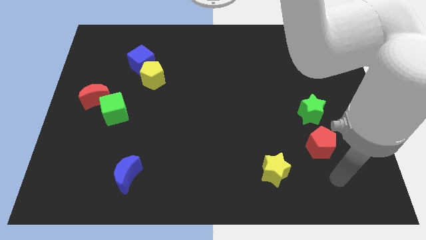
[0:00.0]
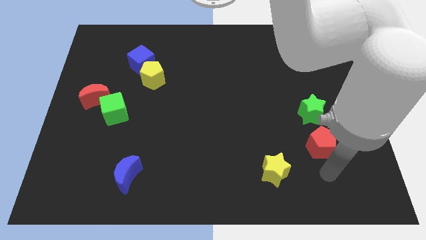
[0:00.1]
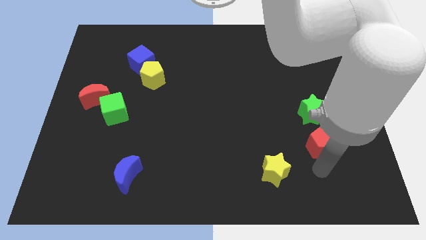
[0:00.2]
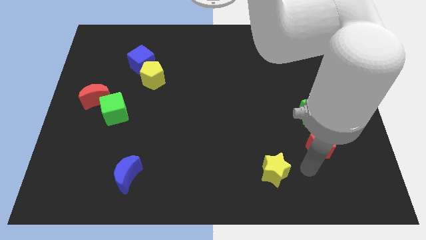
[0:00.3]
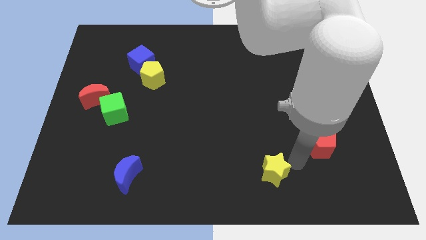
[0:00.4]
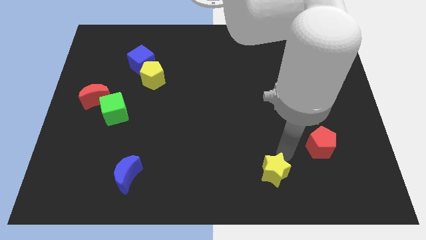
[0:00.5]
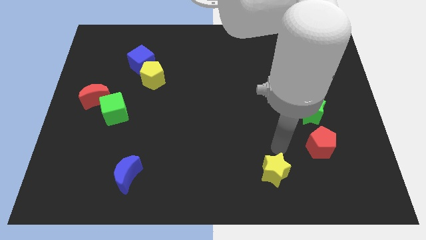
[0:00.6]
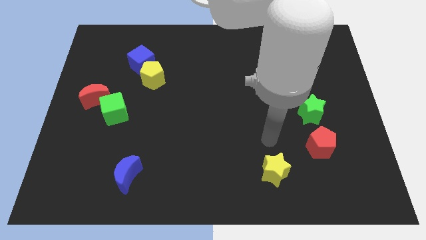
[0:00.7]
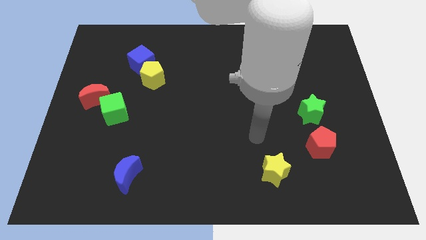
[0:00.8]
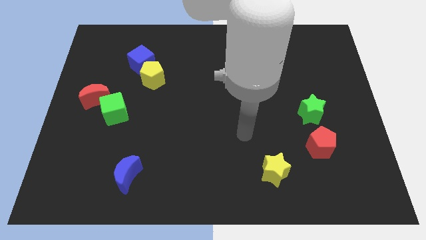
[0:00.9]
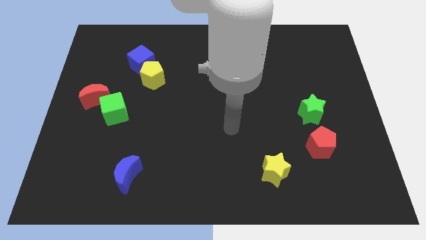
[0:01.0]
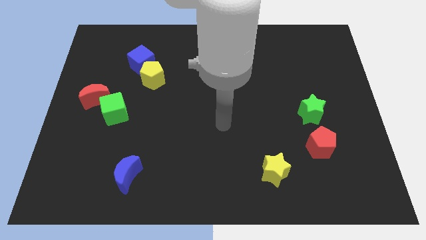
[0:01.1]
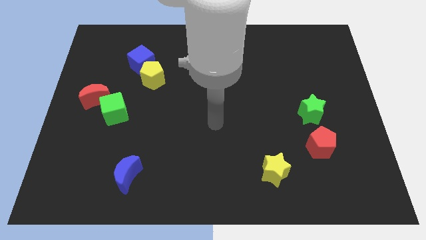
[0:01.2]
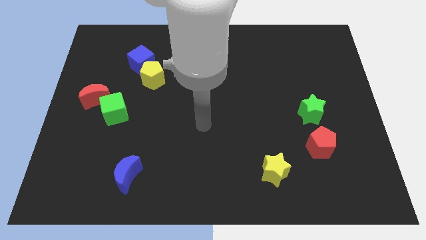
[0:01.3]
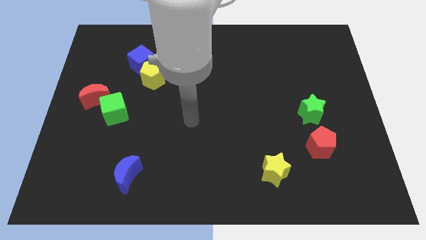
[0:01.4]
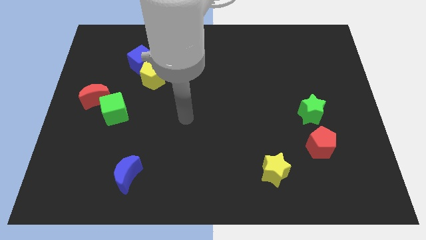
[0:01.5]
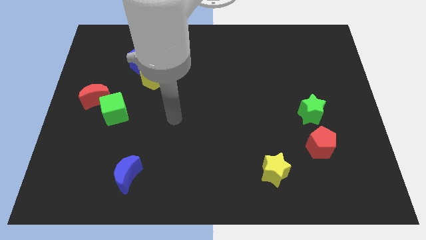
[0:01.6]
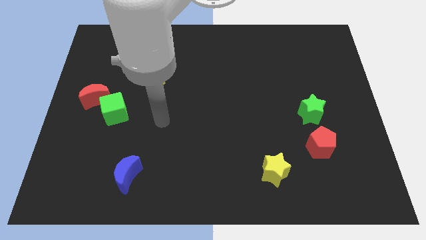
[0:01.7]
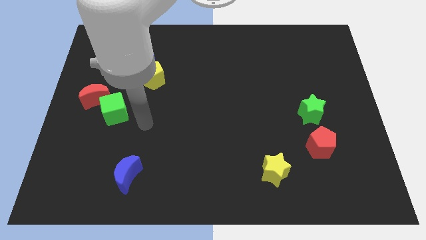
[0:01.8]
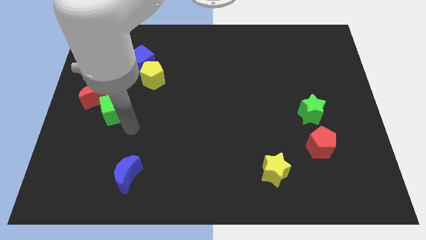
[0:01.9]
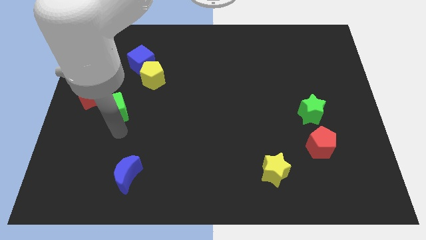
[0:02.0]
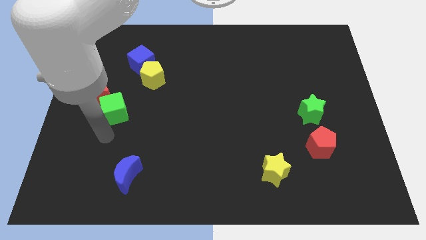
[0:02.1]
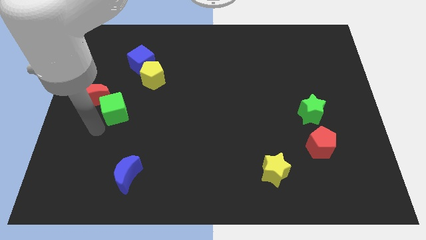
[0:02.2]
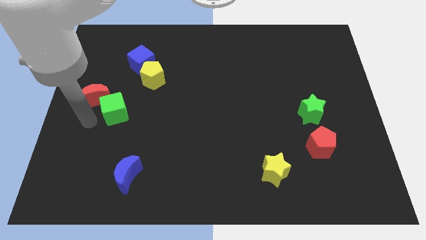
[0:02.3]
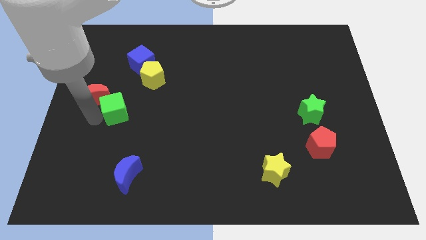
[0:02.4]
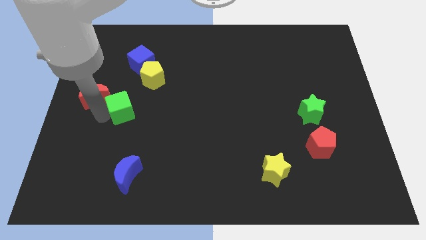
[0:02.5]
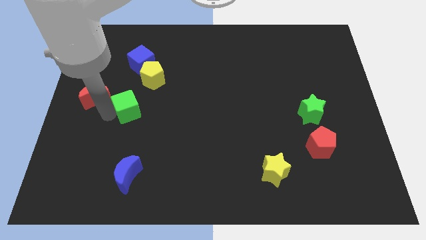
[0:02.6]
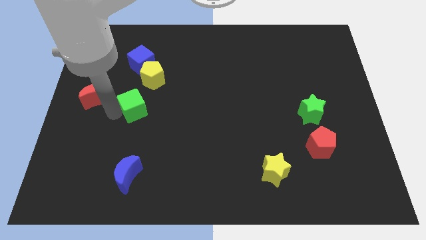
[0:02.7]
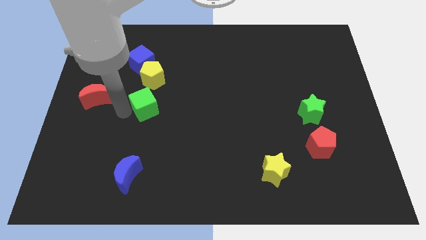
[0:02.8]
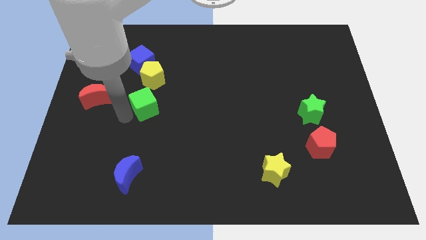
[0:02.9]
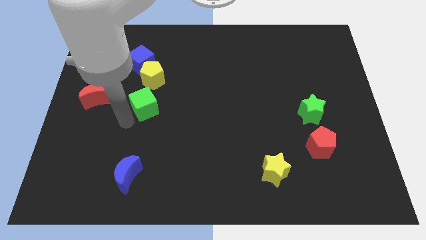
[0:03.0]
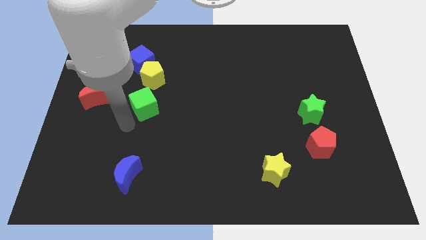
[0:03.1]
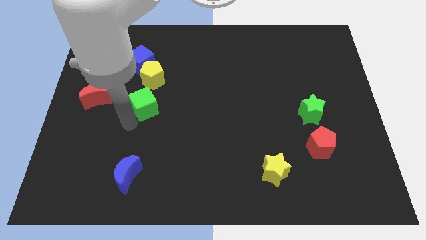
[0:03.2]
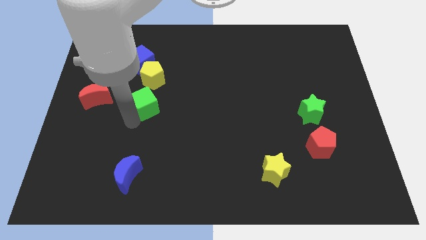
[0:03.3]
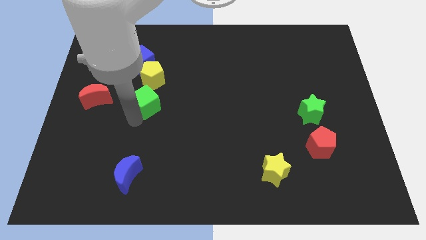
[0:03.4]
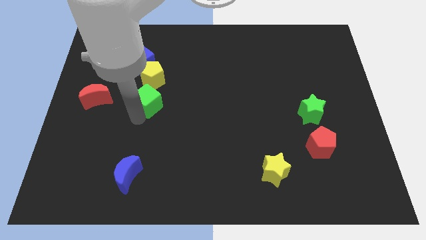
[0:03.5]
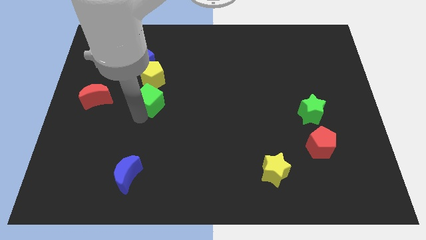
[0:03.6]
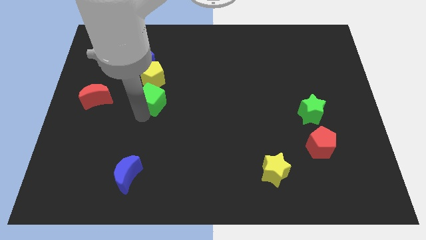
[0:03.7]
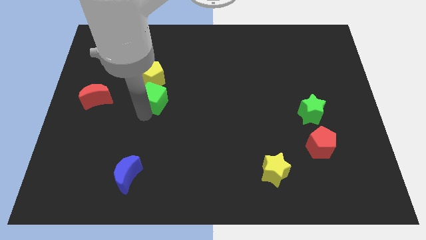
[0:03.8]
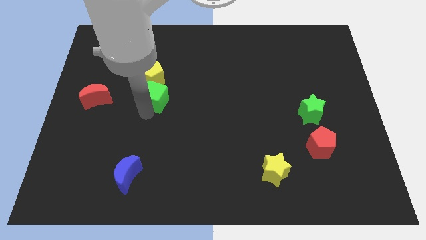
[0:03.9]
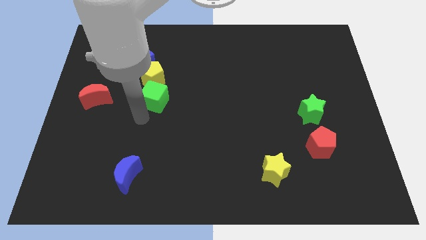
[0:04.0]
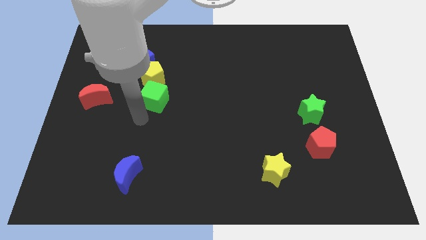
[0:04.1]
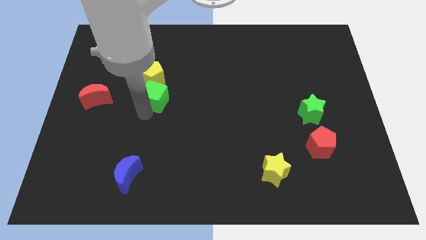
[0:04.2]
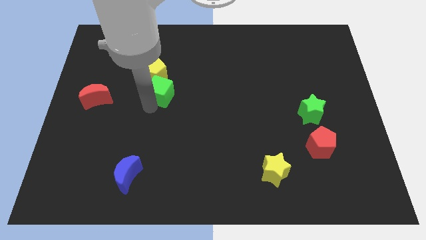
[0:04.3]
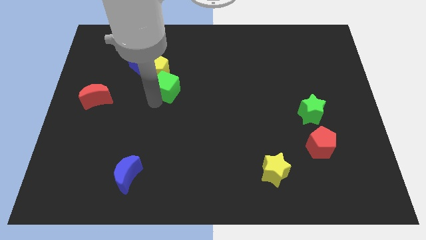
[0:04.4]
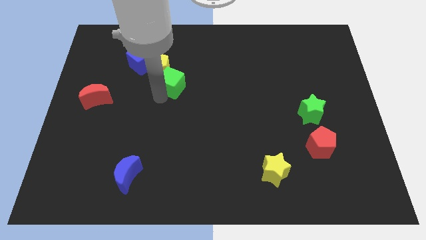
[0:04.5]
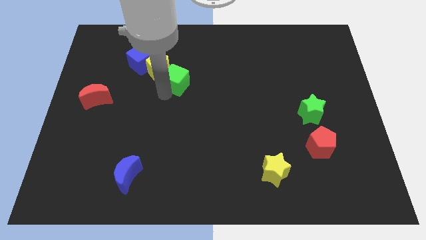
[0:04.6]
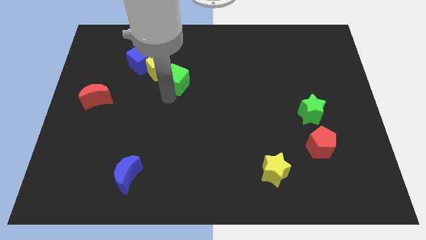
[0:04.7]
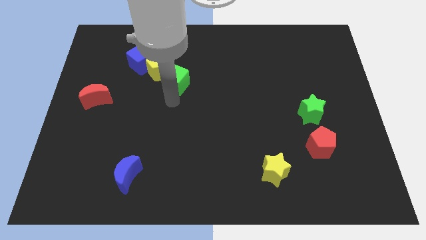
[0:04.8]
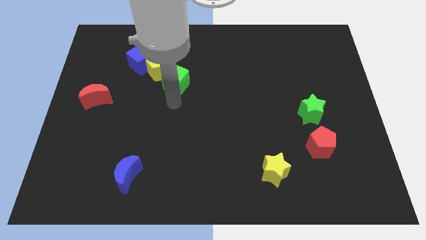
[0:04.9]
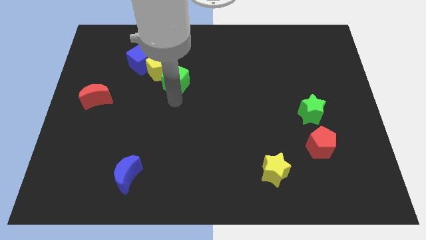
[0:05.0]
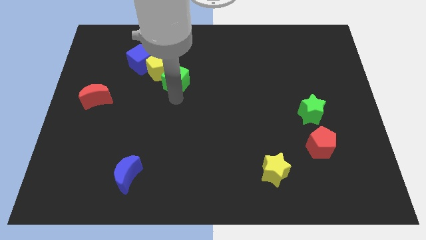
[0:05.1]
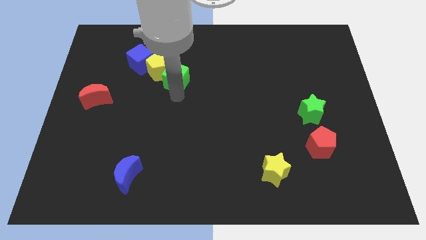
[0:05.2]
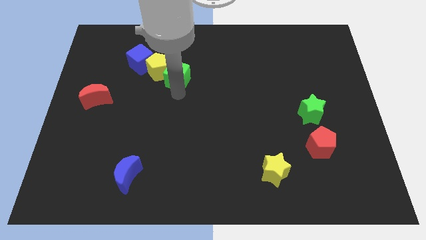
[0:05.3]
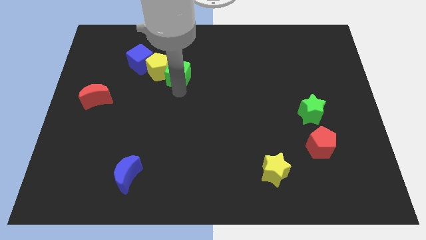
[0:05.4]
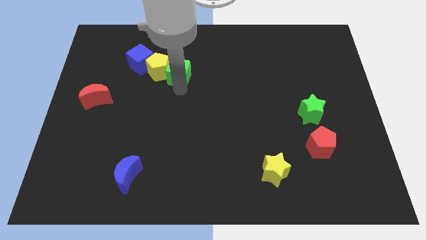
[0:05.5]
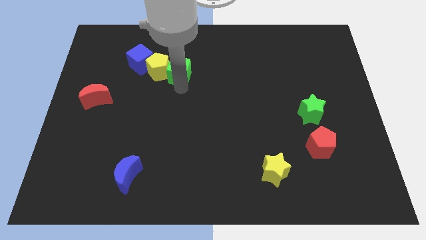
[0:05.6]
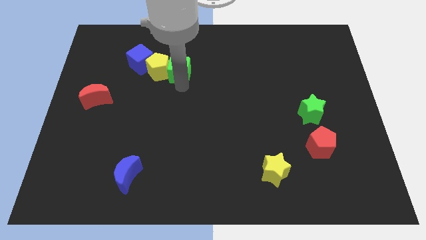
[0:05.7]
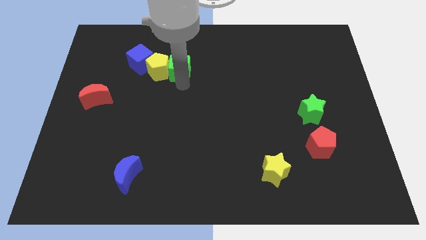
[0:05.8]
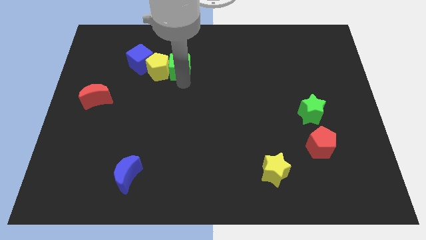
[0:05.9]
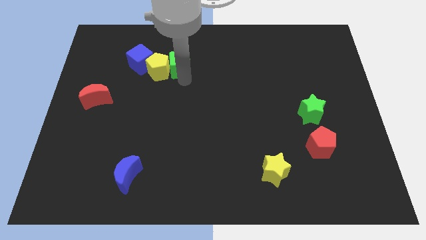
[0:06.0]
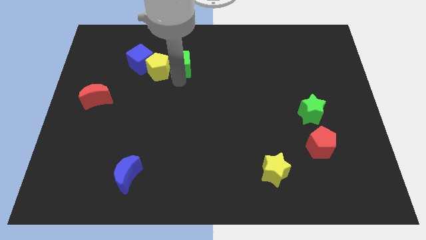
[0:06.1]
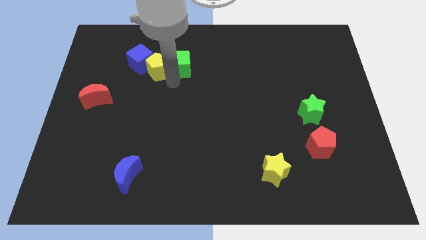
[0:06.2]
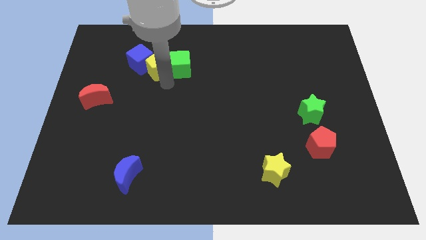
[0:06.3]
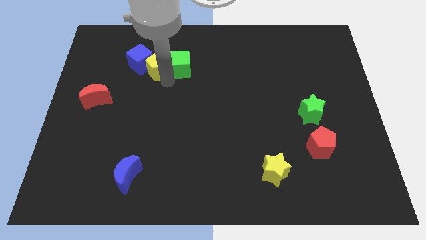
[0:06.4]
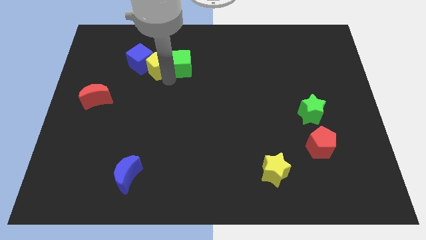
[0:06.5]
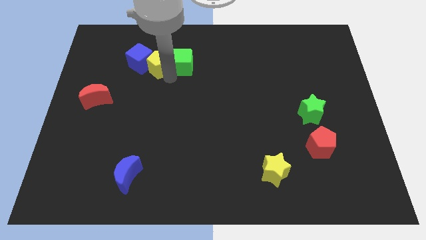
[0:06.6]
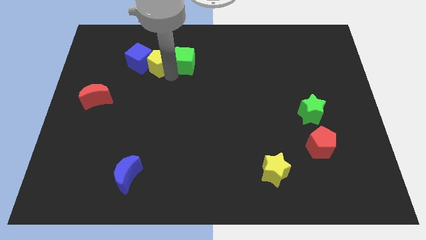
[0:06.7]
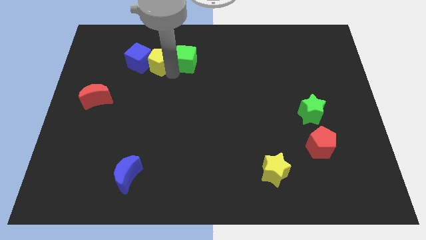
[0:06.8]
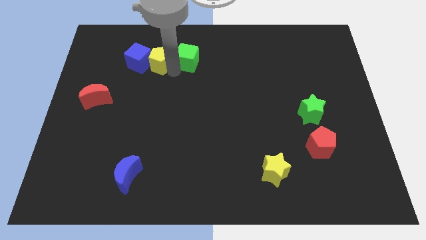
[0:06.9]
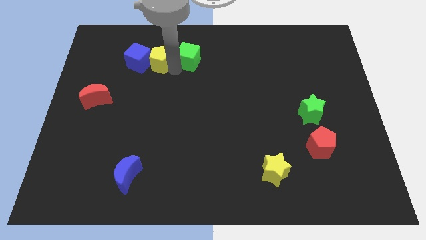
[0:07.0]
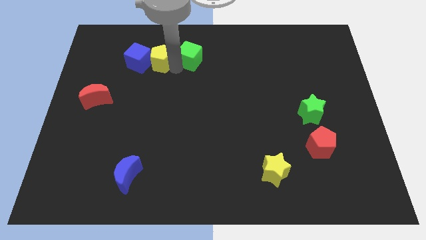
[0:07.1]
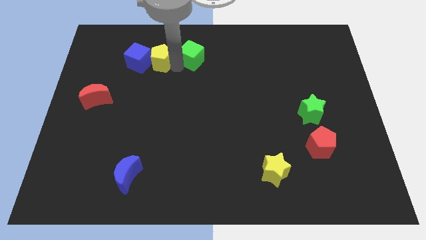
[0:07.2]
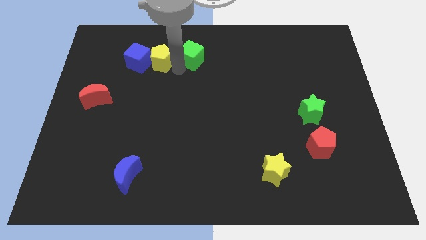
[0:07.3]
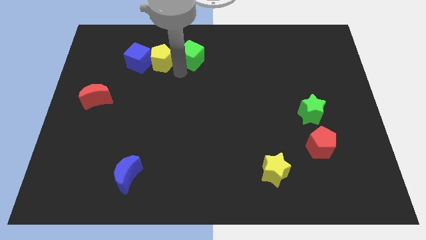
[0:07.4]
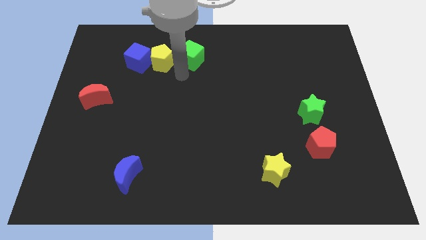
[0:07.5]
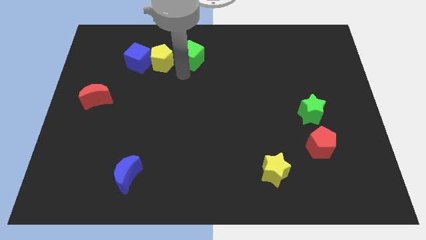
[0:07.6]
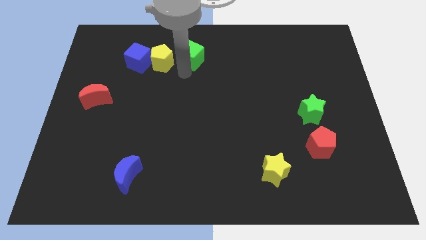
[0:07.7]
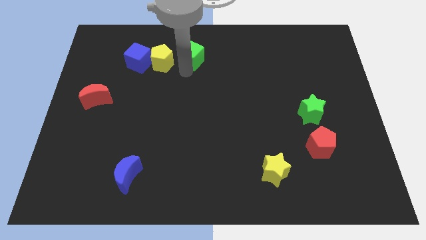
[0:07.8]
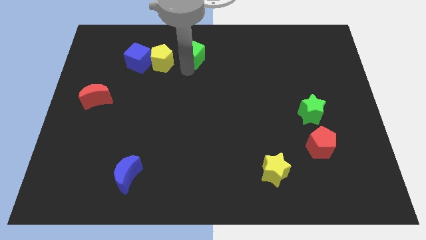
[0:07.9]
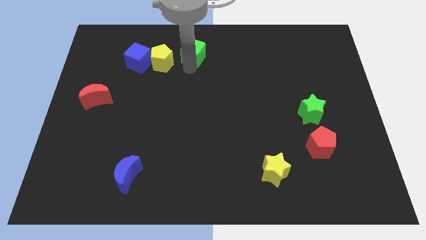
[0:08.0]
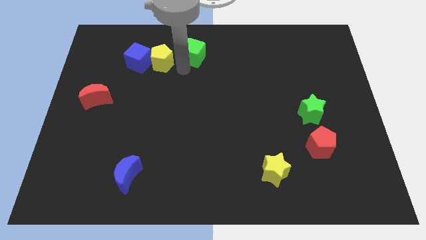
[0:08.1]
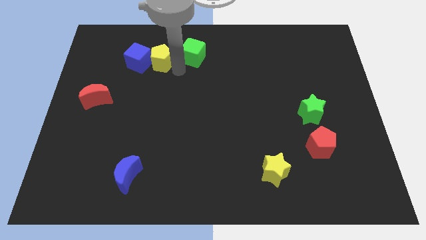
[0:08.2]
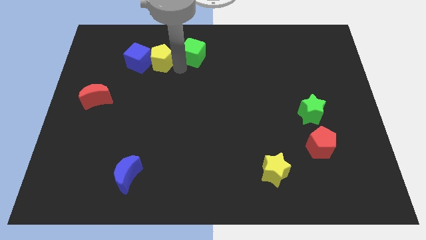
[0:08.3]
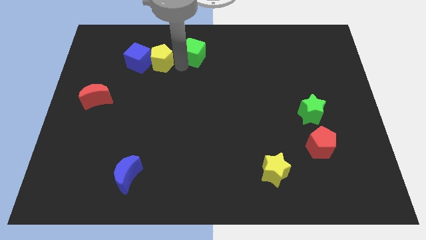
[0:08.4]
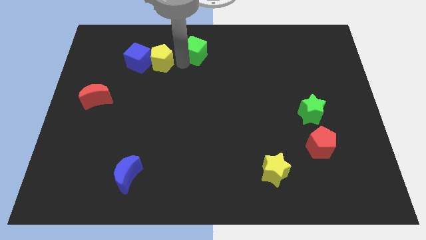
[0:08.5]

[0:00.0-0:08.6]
push the green cube to the top side
